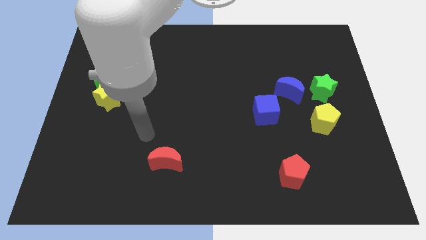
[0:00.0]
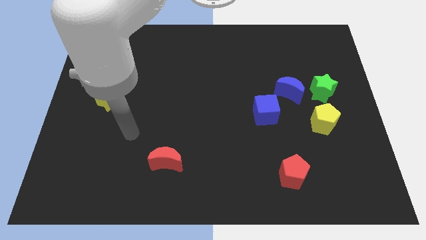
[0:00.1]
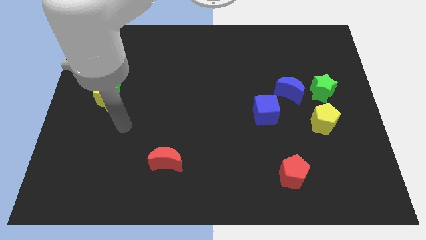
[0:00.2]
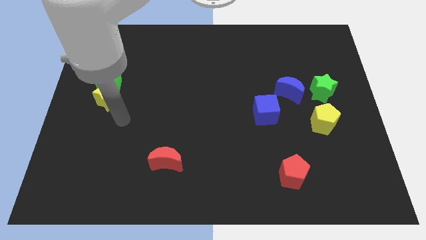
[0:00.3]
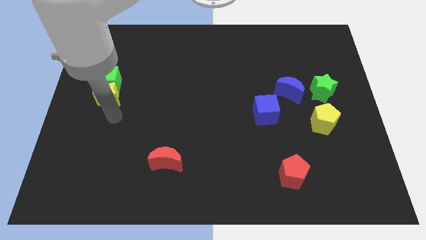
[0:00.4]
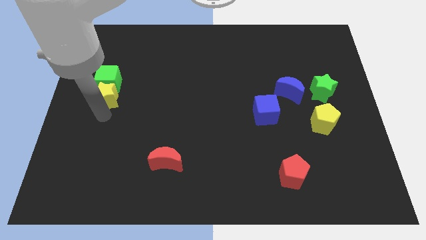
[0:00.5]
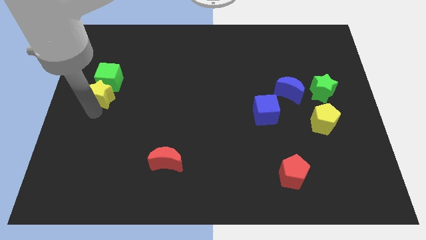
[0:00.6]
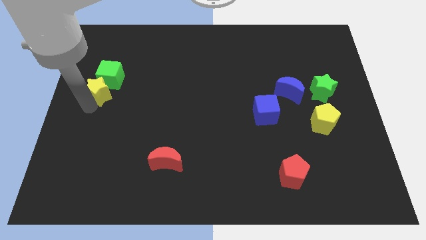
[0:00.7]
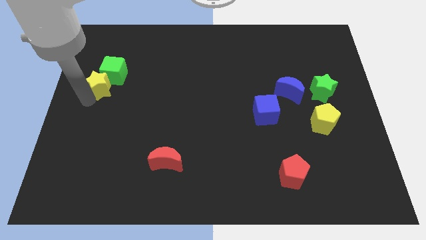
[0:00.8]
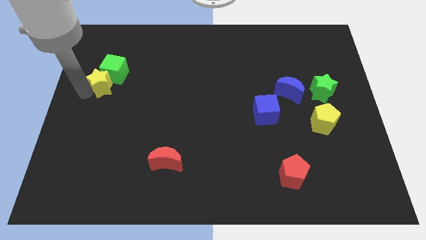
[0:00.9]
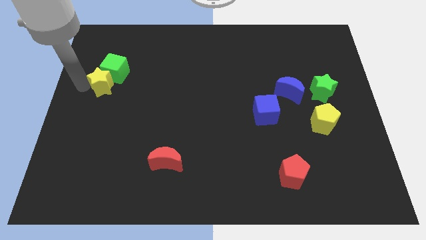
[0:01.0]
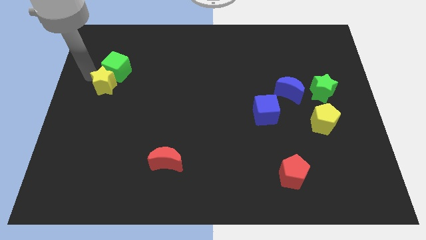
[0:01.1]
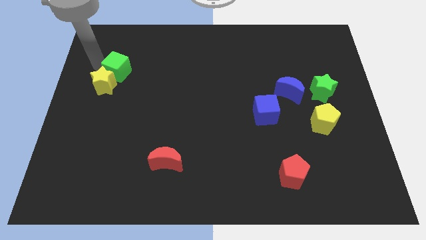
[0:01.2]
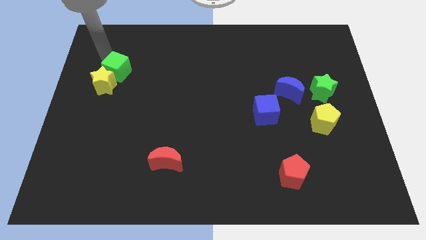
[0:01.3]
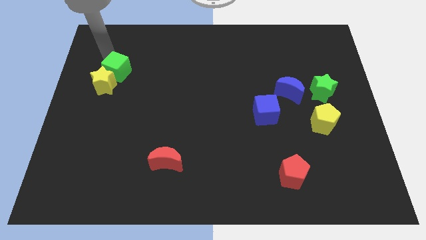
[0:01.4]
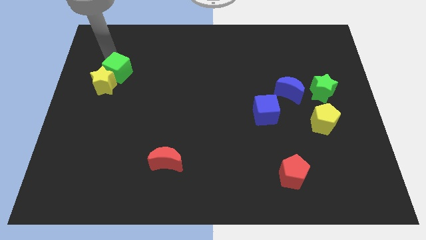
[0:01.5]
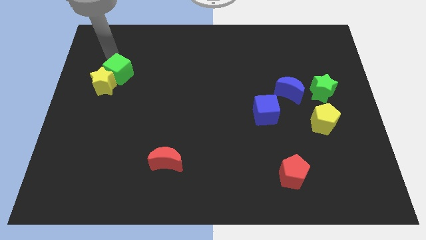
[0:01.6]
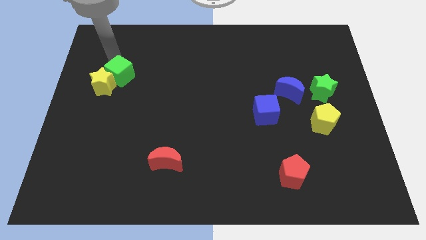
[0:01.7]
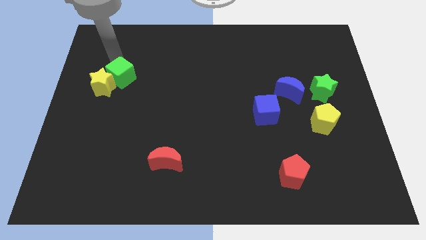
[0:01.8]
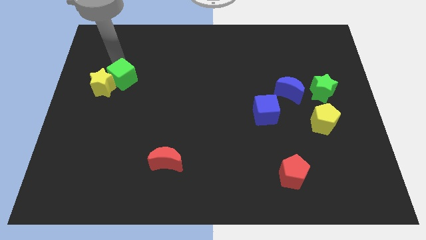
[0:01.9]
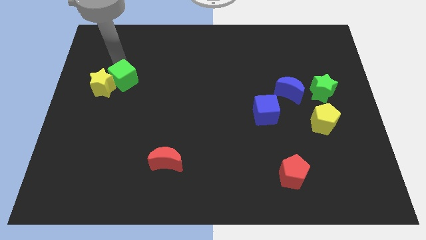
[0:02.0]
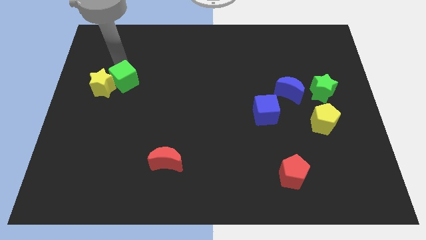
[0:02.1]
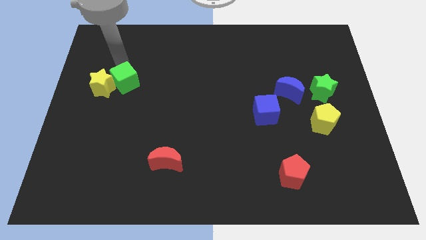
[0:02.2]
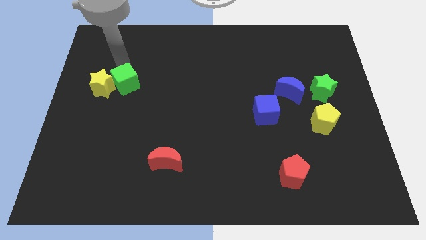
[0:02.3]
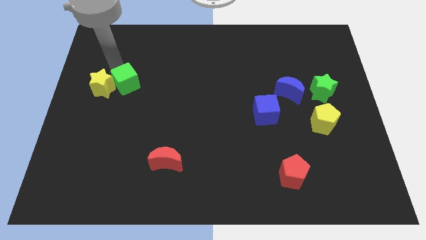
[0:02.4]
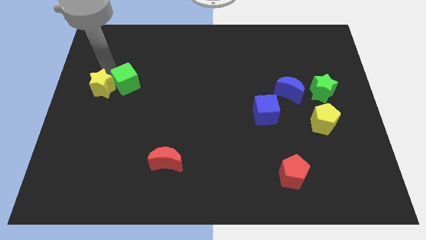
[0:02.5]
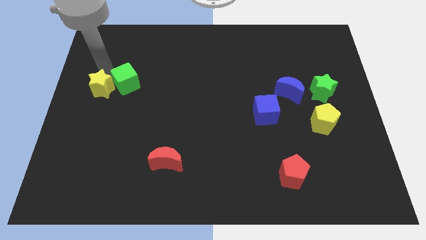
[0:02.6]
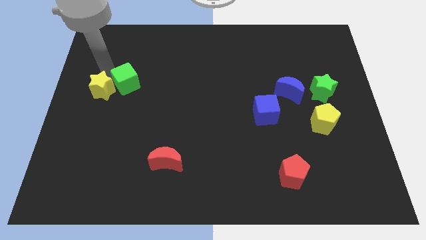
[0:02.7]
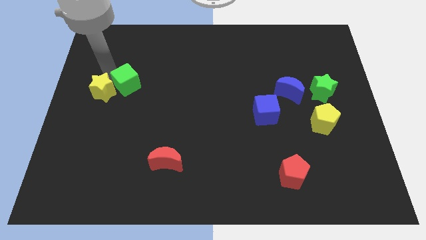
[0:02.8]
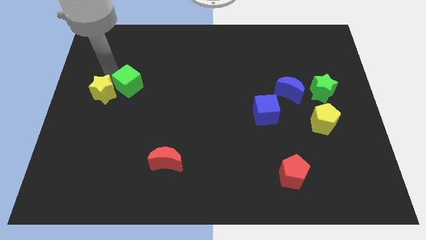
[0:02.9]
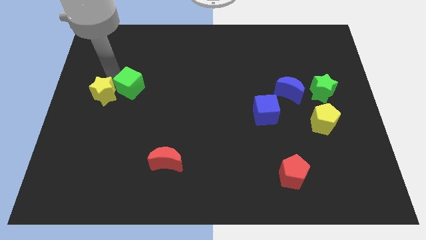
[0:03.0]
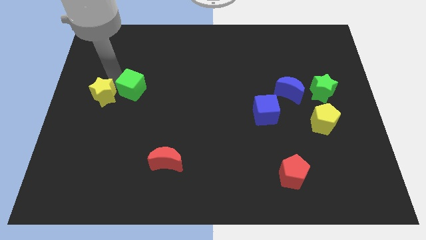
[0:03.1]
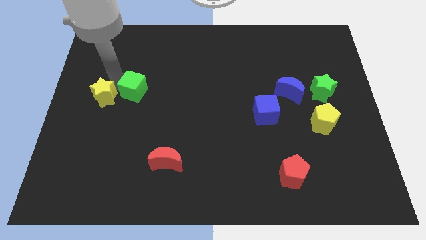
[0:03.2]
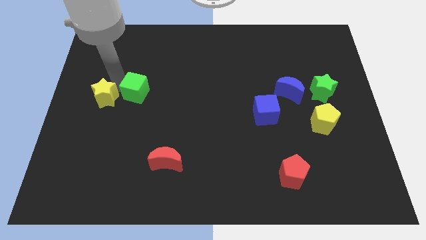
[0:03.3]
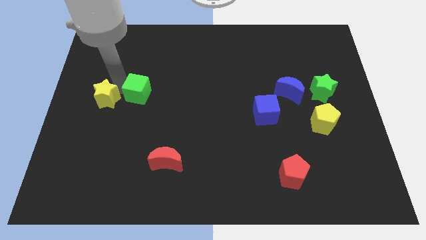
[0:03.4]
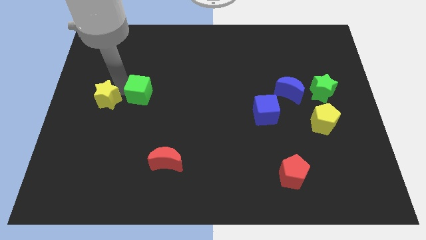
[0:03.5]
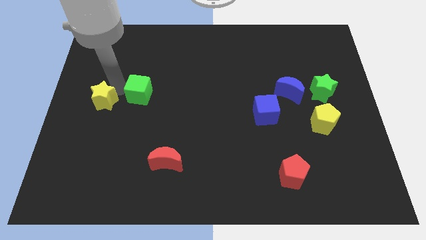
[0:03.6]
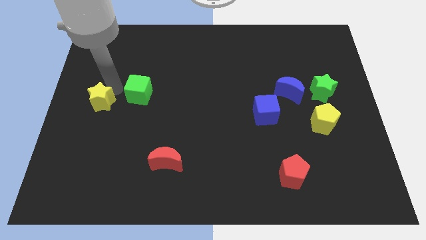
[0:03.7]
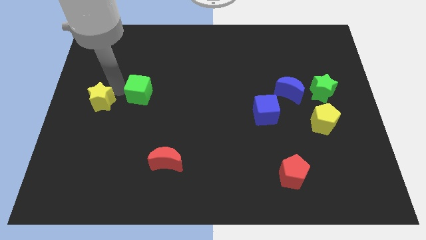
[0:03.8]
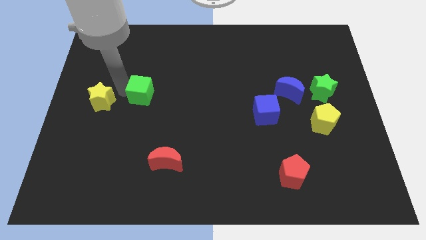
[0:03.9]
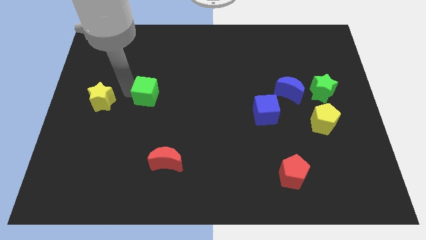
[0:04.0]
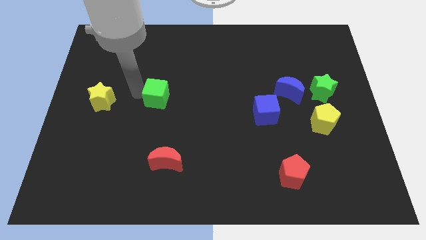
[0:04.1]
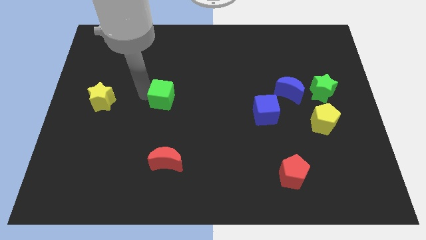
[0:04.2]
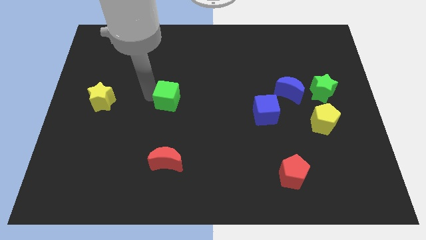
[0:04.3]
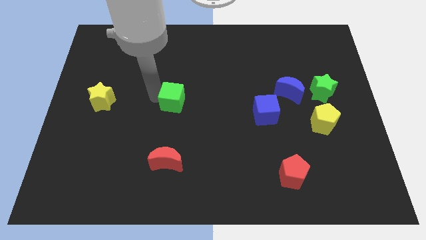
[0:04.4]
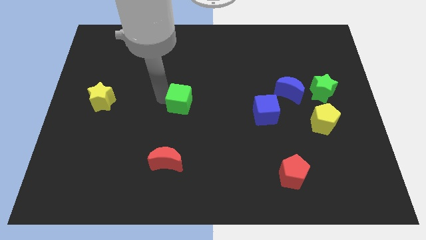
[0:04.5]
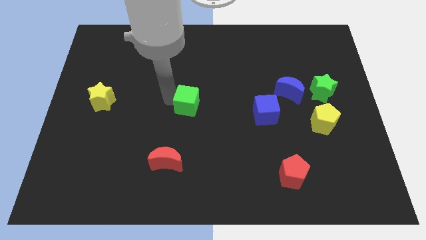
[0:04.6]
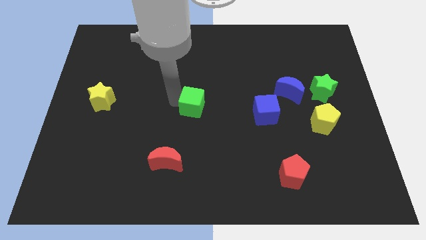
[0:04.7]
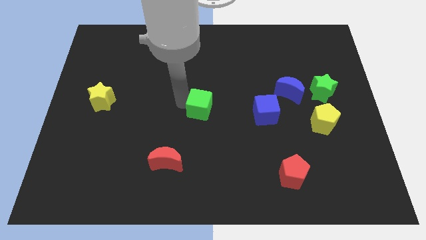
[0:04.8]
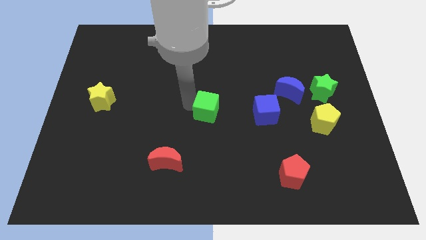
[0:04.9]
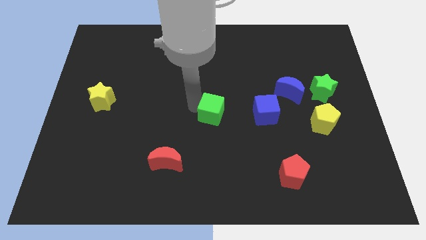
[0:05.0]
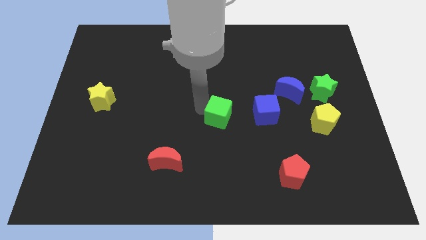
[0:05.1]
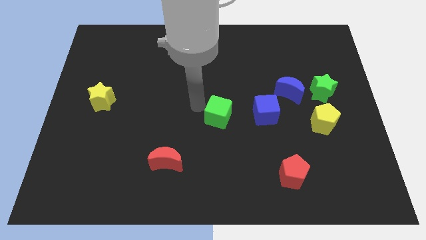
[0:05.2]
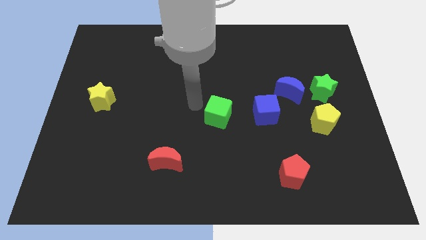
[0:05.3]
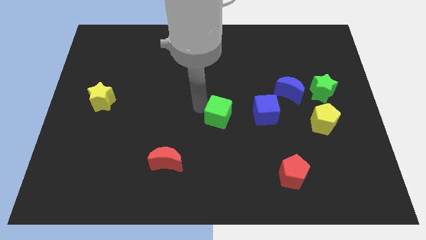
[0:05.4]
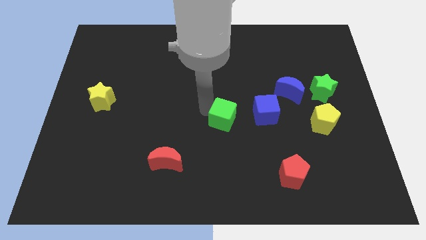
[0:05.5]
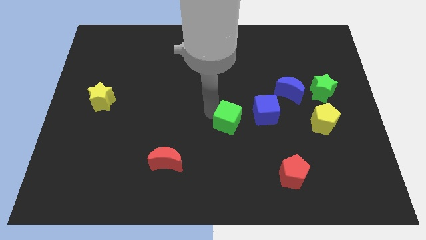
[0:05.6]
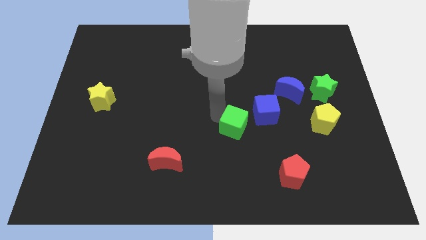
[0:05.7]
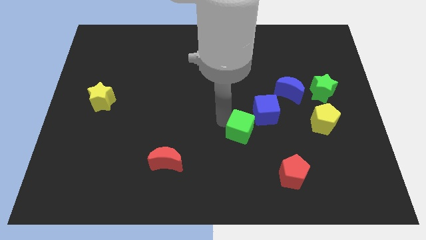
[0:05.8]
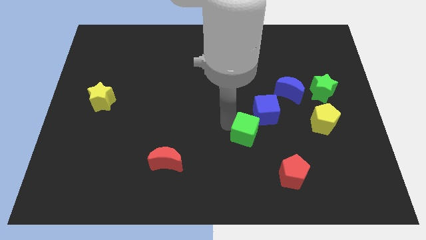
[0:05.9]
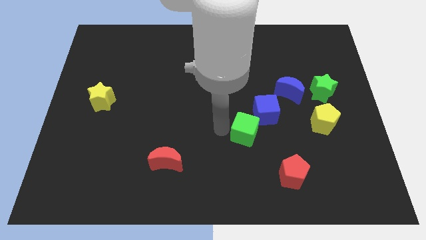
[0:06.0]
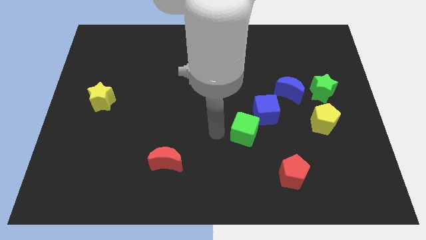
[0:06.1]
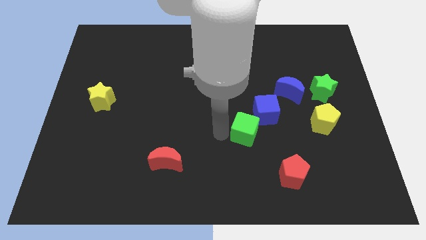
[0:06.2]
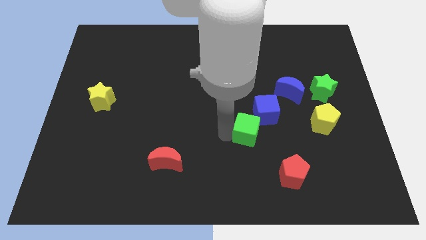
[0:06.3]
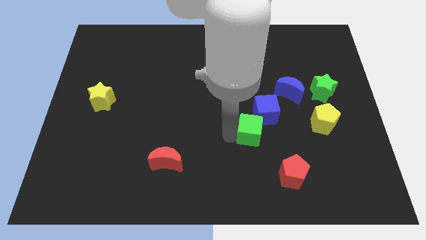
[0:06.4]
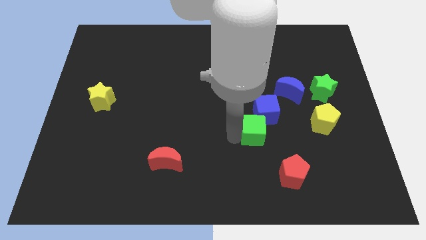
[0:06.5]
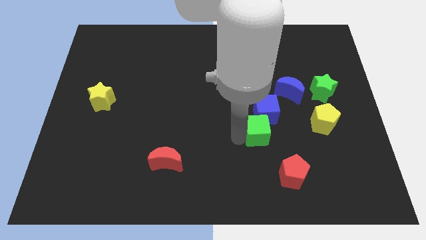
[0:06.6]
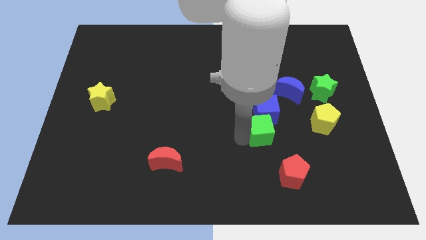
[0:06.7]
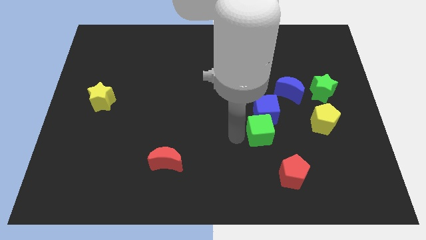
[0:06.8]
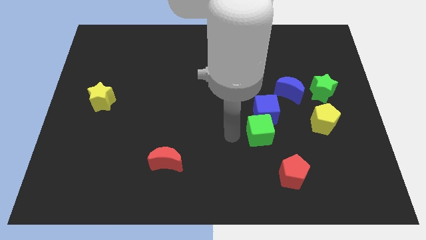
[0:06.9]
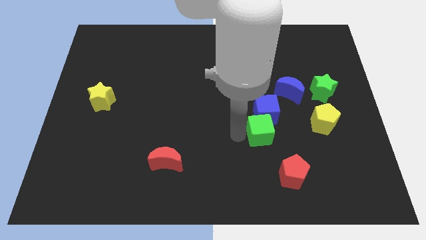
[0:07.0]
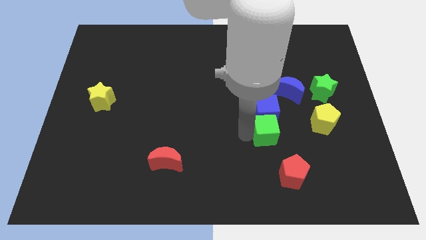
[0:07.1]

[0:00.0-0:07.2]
slide the green cube diagonally down and to the right of the blue cube
